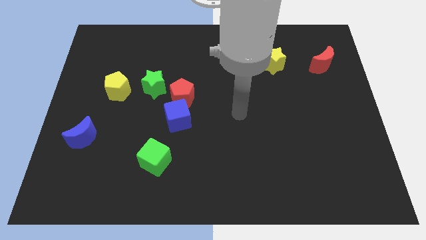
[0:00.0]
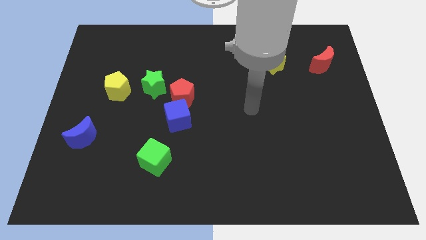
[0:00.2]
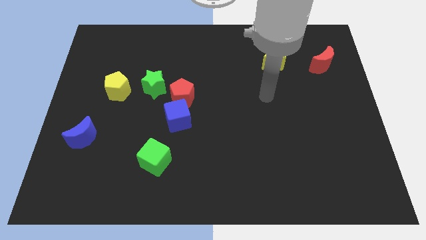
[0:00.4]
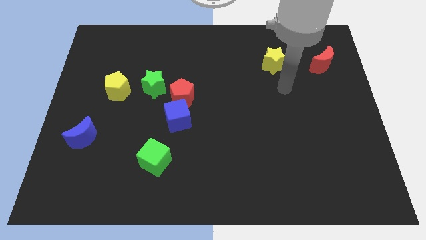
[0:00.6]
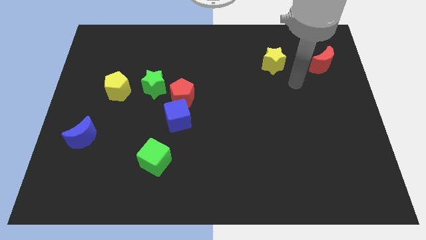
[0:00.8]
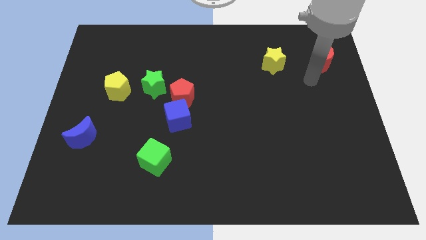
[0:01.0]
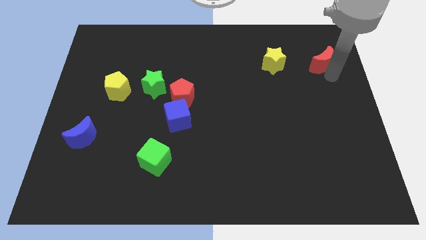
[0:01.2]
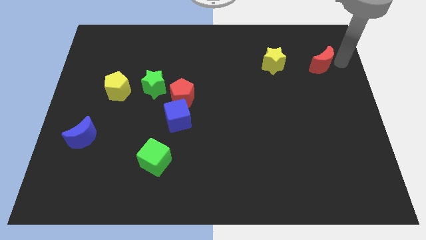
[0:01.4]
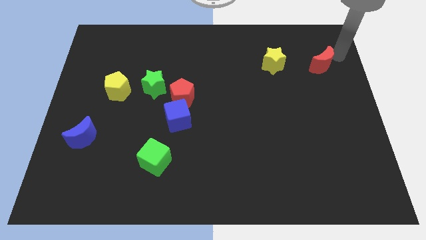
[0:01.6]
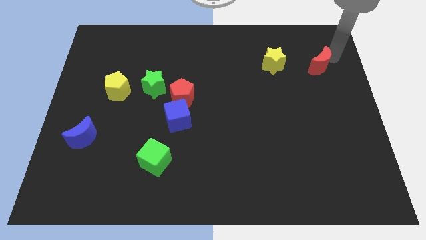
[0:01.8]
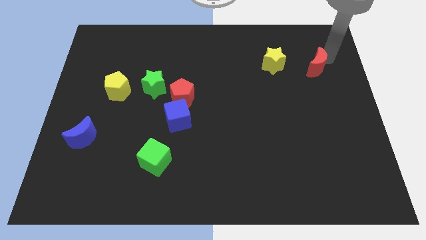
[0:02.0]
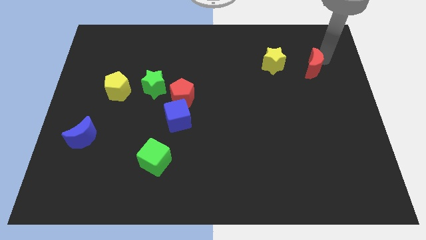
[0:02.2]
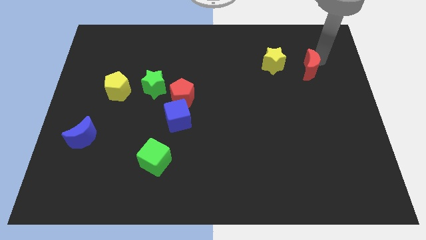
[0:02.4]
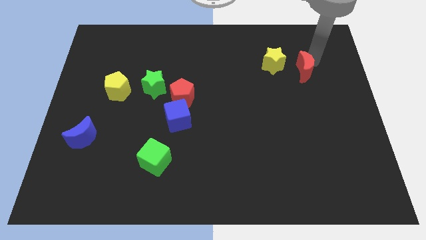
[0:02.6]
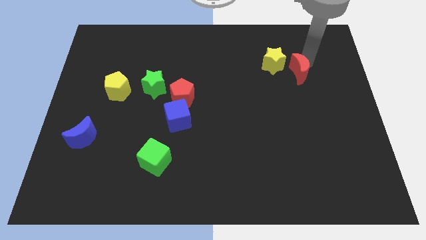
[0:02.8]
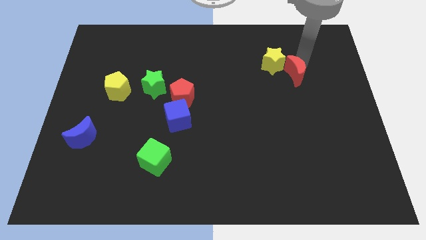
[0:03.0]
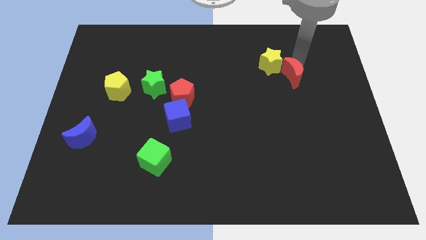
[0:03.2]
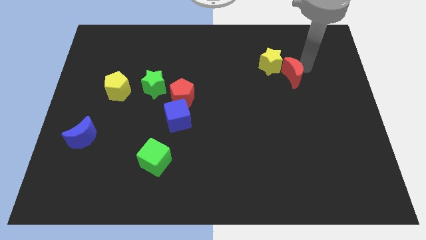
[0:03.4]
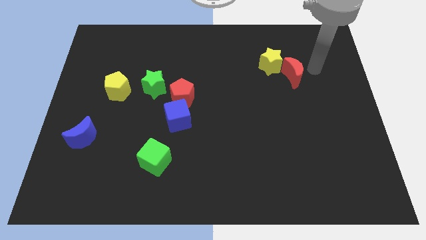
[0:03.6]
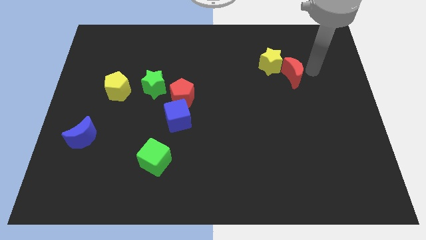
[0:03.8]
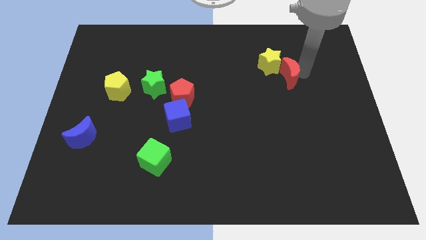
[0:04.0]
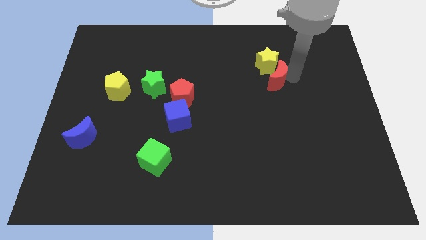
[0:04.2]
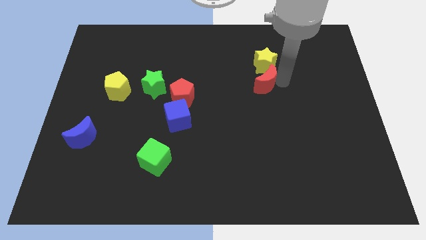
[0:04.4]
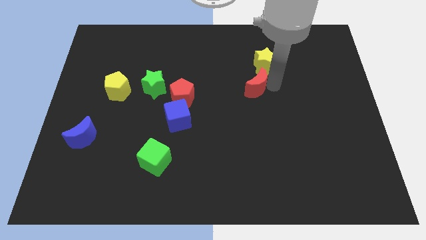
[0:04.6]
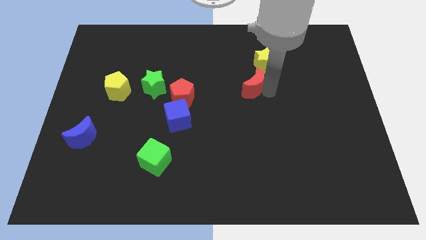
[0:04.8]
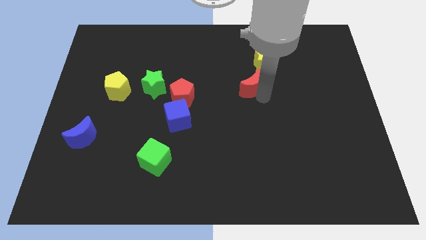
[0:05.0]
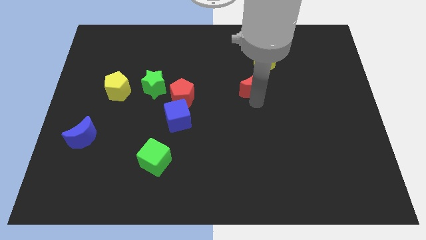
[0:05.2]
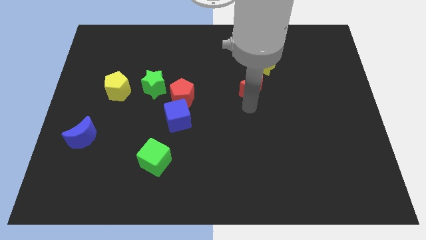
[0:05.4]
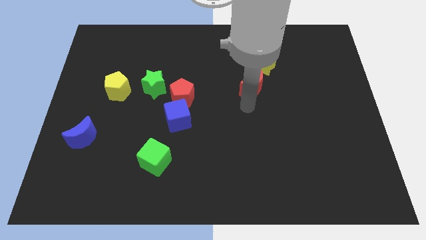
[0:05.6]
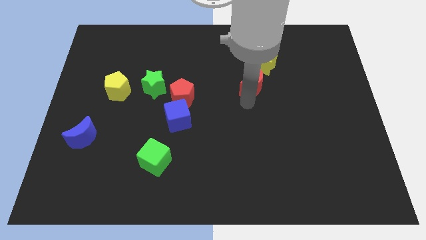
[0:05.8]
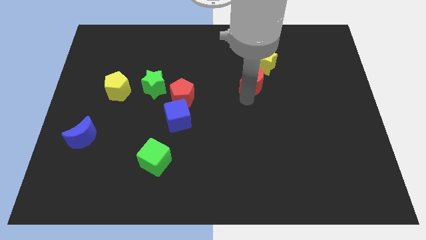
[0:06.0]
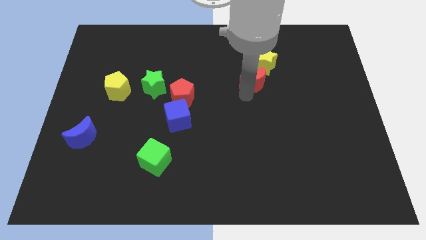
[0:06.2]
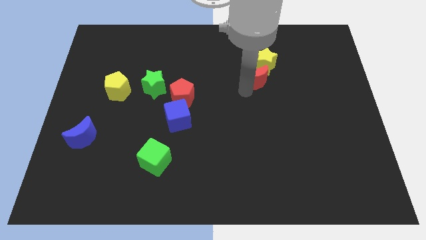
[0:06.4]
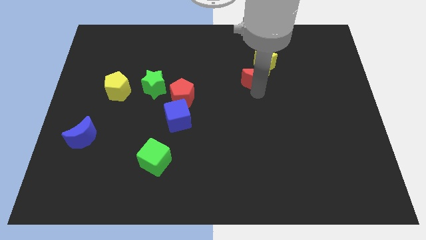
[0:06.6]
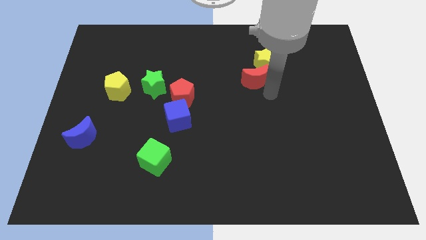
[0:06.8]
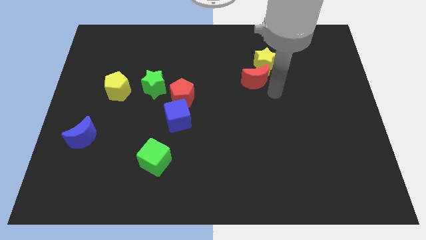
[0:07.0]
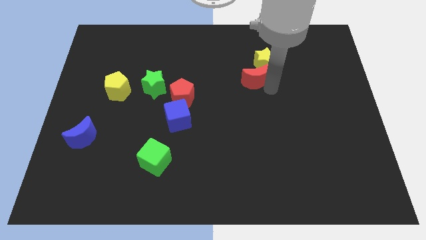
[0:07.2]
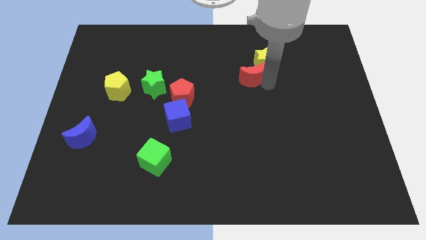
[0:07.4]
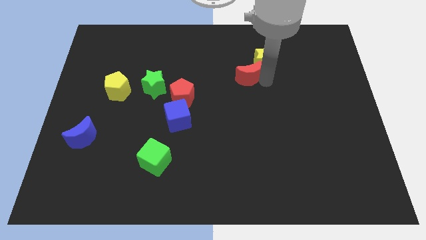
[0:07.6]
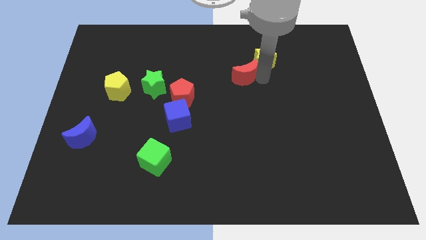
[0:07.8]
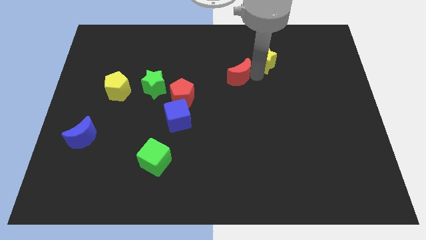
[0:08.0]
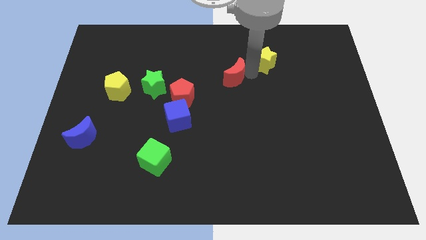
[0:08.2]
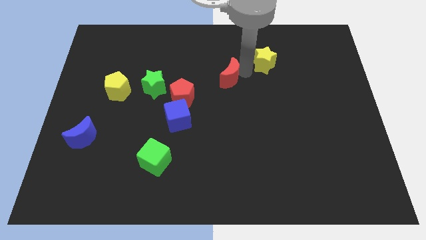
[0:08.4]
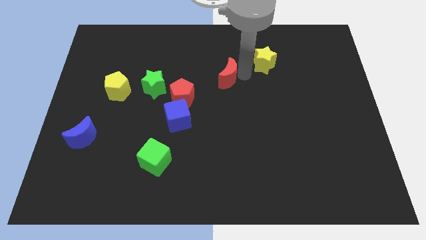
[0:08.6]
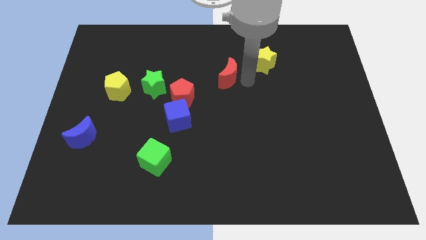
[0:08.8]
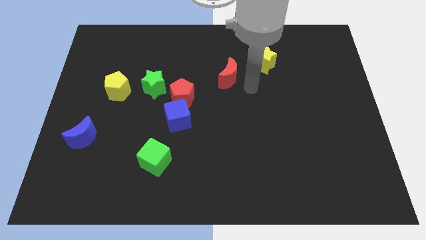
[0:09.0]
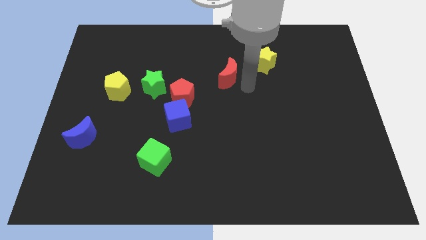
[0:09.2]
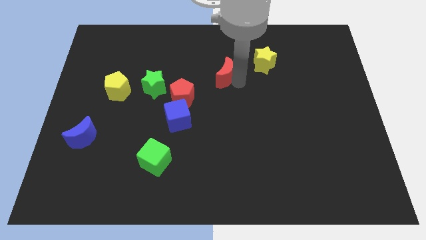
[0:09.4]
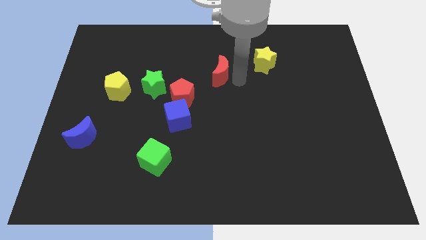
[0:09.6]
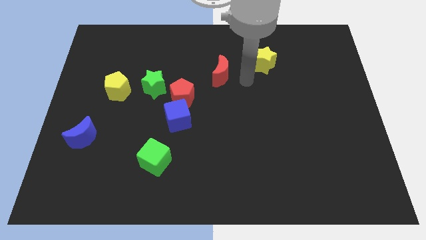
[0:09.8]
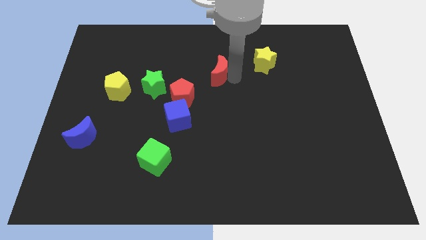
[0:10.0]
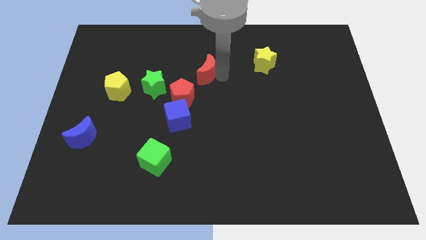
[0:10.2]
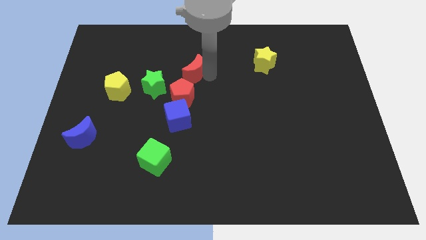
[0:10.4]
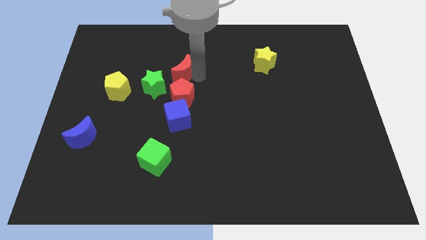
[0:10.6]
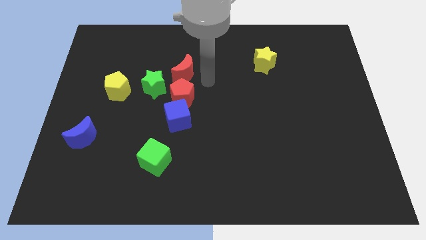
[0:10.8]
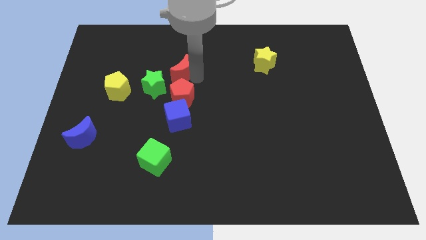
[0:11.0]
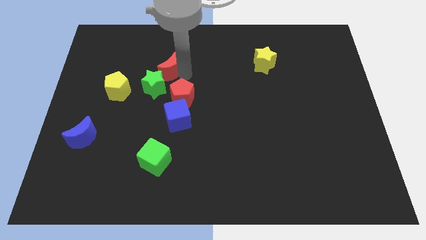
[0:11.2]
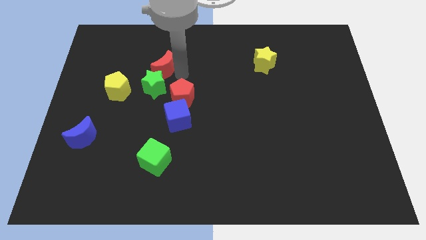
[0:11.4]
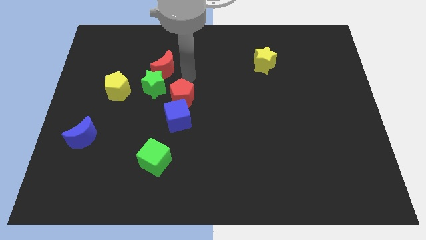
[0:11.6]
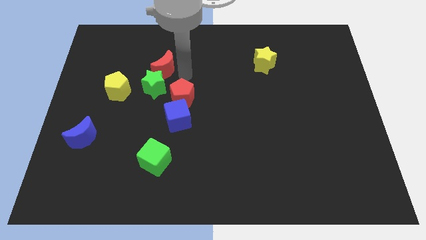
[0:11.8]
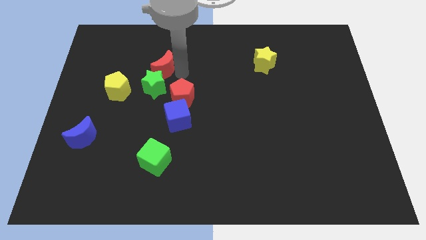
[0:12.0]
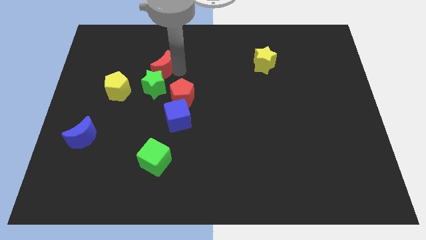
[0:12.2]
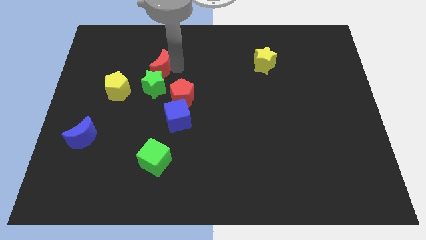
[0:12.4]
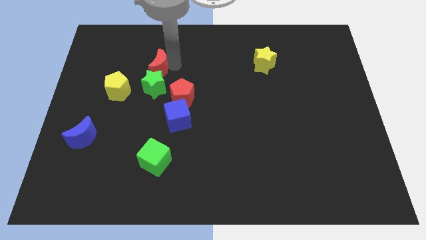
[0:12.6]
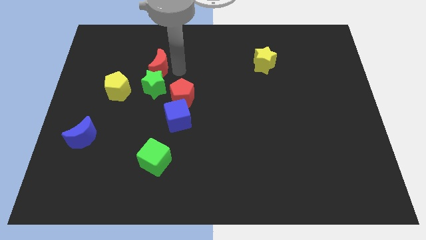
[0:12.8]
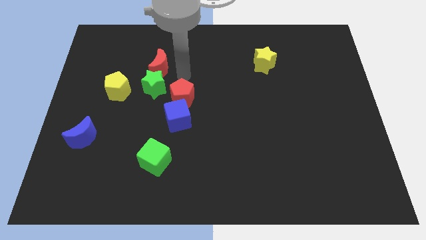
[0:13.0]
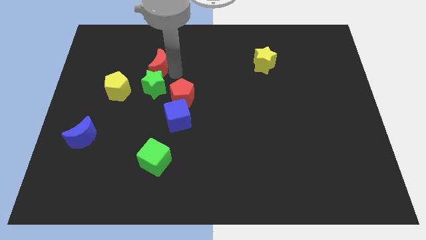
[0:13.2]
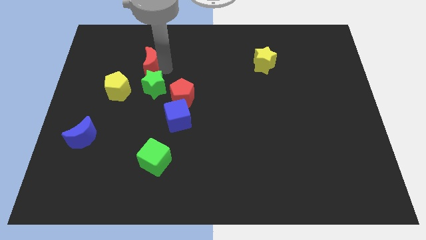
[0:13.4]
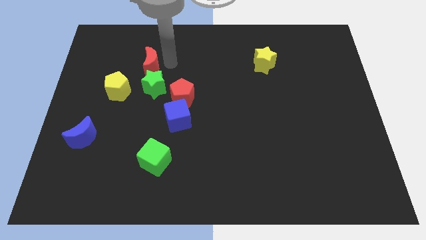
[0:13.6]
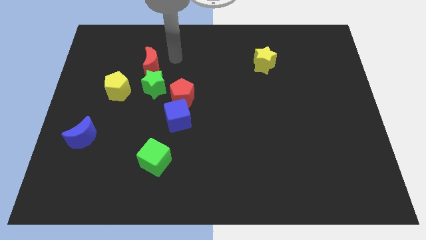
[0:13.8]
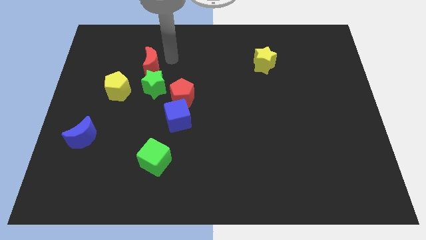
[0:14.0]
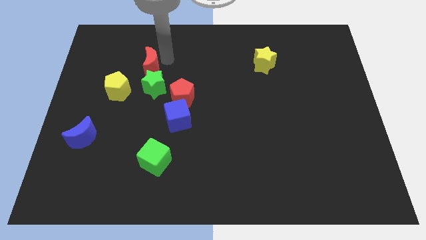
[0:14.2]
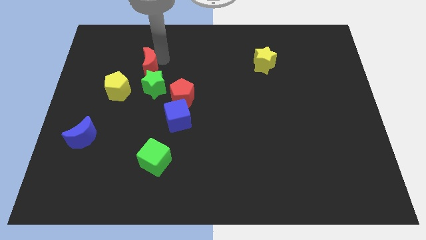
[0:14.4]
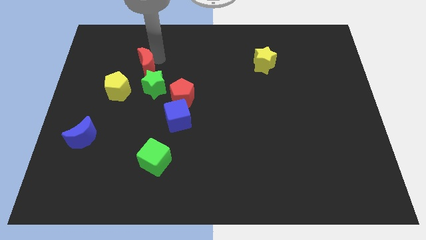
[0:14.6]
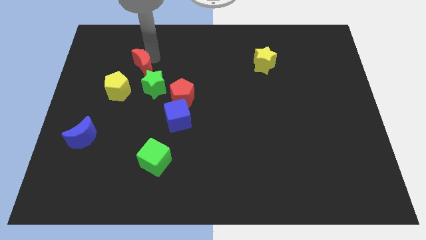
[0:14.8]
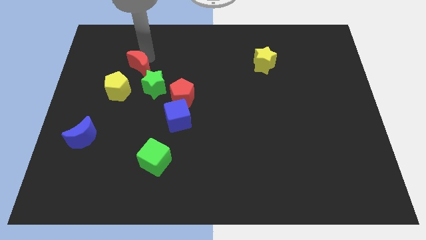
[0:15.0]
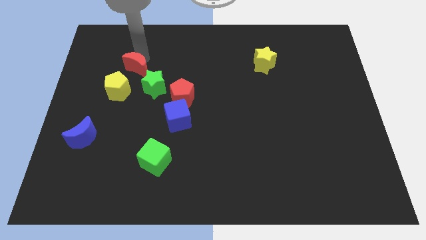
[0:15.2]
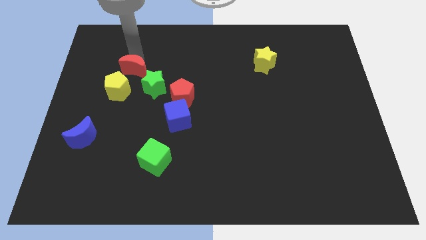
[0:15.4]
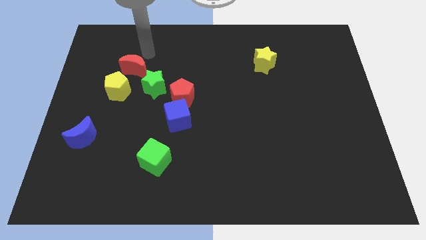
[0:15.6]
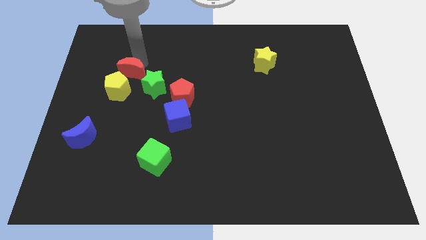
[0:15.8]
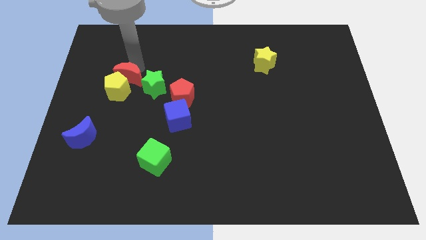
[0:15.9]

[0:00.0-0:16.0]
move the red moon towards the yellow pentagon
